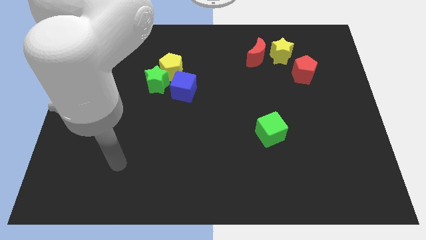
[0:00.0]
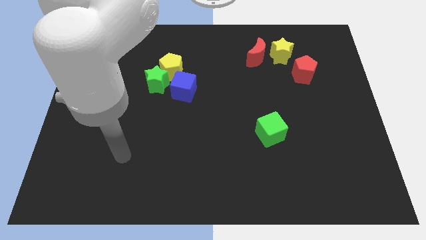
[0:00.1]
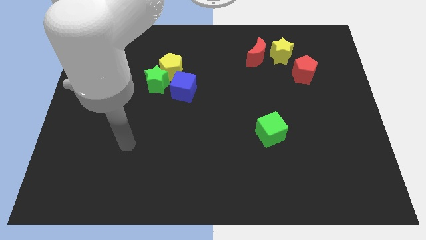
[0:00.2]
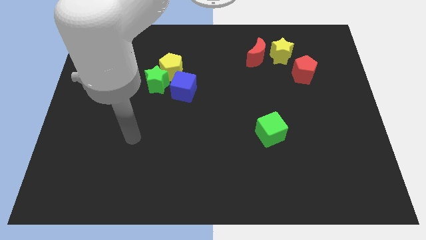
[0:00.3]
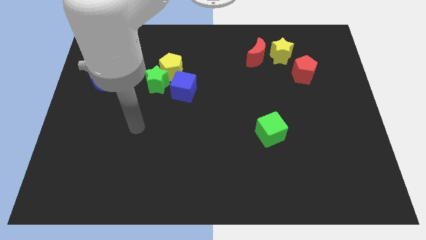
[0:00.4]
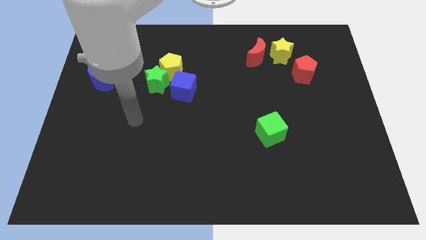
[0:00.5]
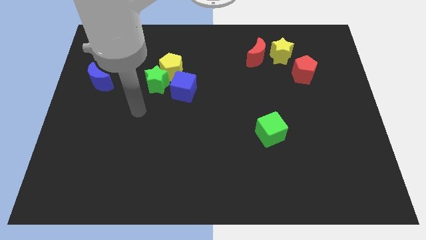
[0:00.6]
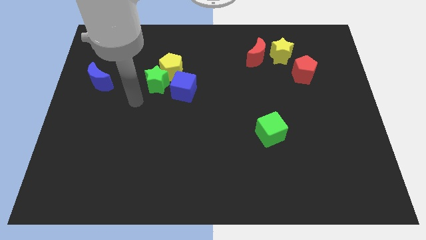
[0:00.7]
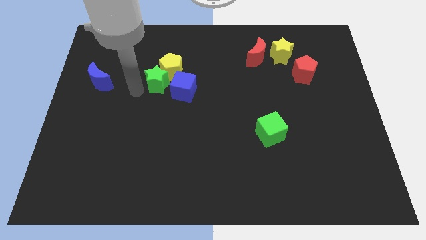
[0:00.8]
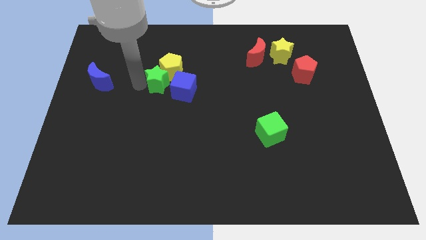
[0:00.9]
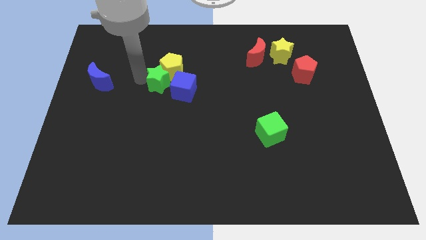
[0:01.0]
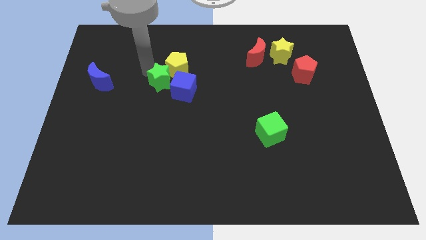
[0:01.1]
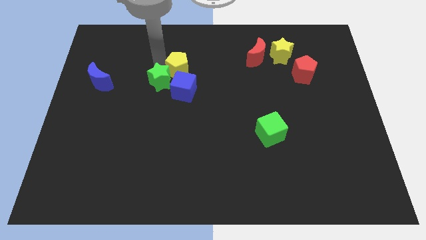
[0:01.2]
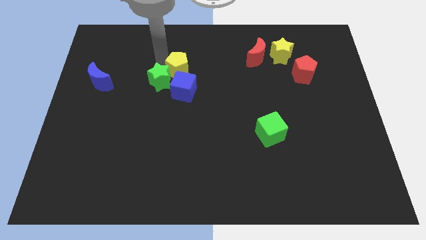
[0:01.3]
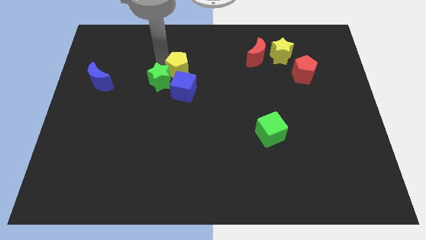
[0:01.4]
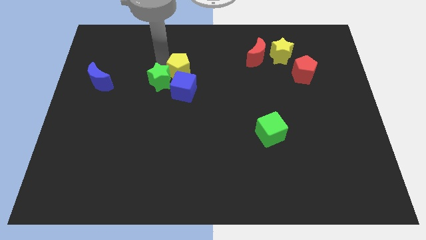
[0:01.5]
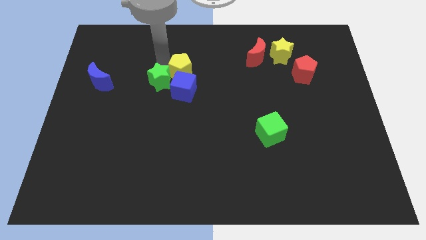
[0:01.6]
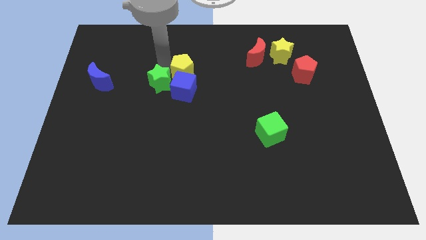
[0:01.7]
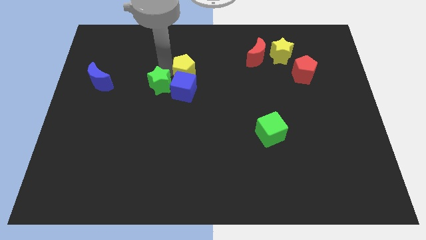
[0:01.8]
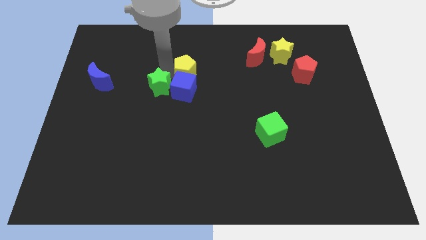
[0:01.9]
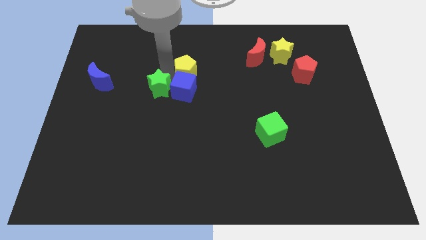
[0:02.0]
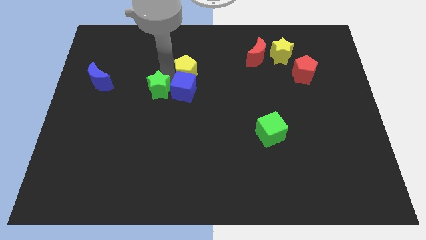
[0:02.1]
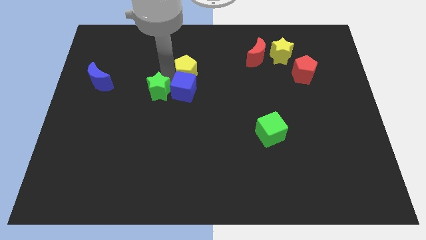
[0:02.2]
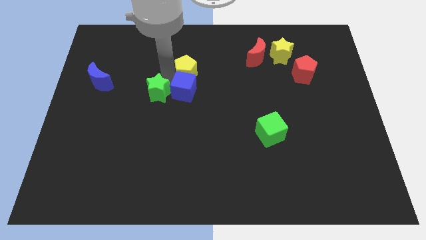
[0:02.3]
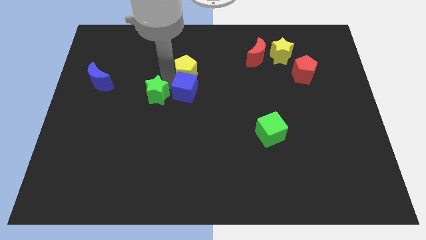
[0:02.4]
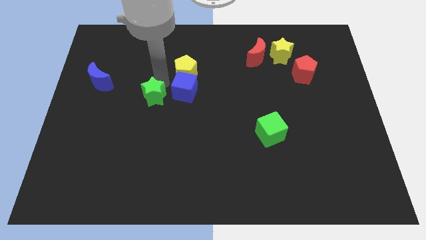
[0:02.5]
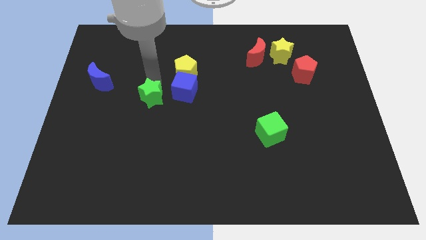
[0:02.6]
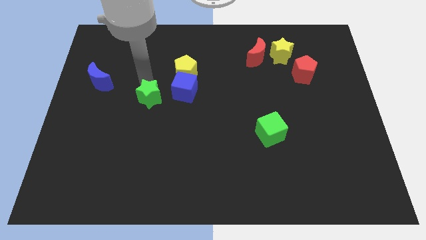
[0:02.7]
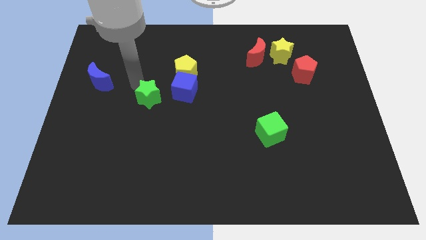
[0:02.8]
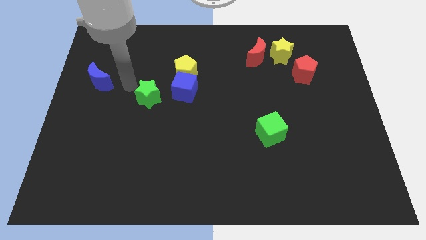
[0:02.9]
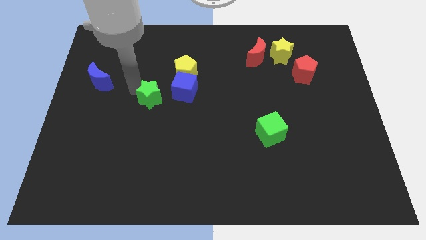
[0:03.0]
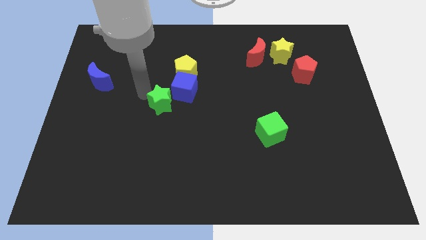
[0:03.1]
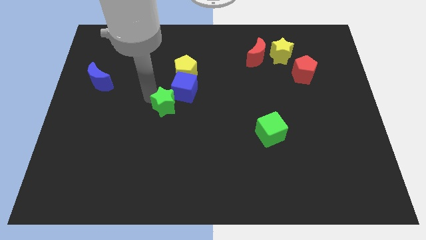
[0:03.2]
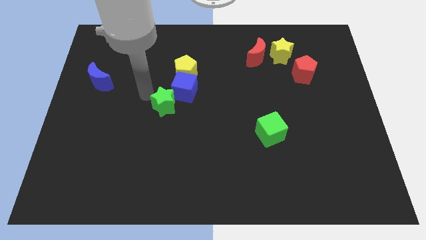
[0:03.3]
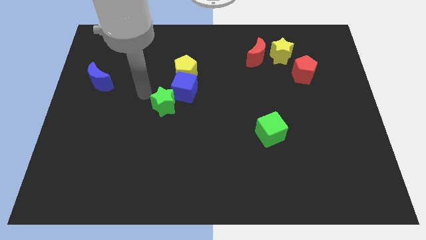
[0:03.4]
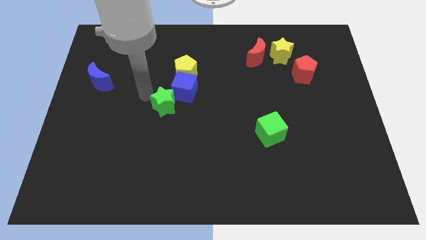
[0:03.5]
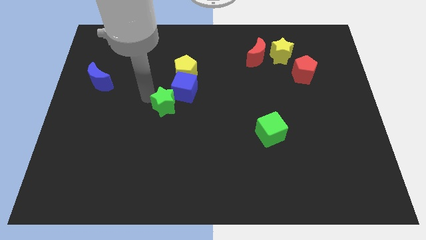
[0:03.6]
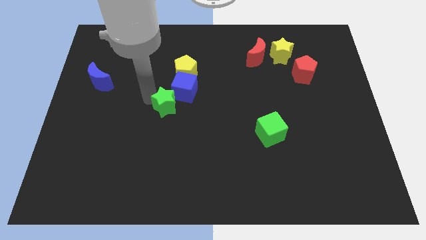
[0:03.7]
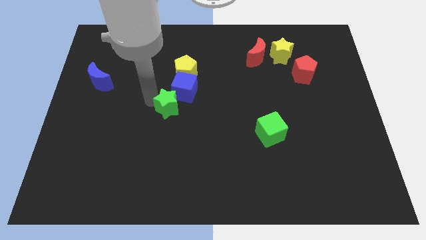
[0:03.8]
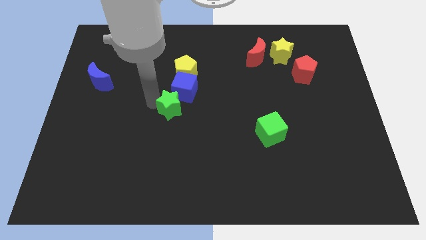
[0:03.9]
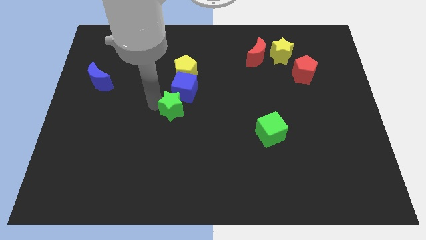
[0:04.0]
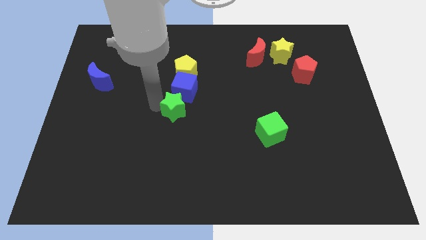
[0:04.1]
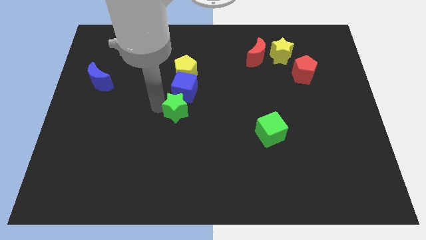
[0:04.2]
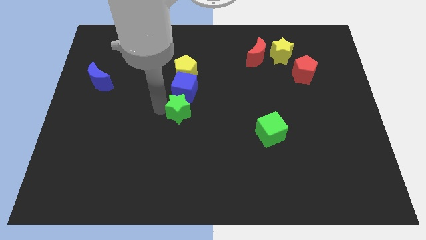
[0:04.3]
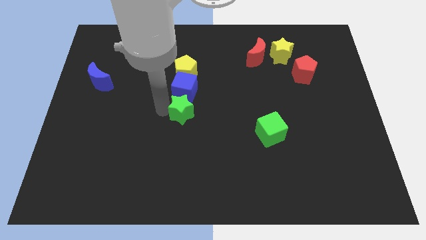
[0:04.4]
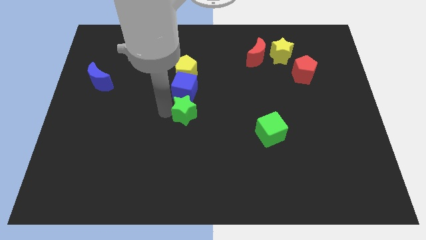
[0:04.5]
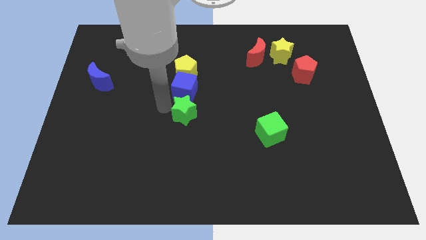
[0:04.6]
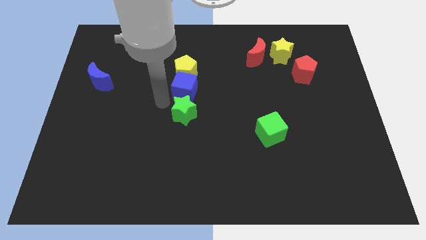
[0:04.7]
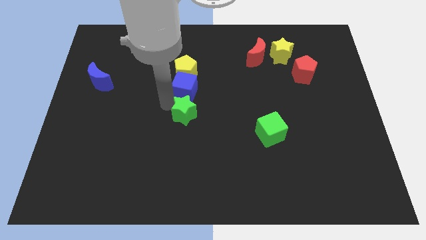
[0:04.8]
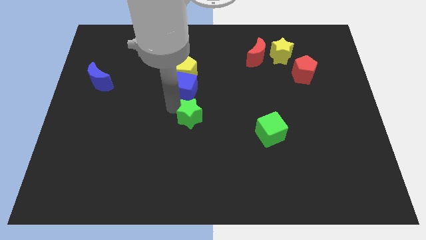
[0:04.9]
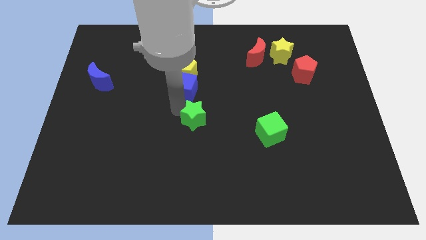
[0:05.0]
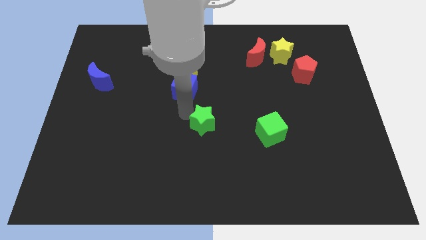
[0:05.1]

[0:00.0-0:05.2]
push the green star to the left of the green cube
